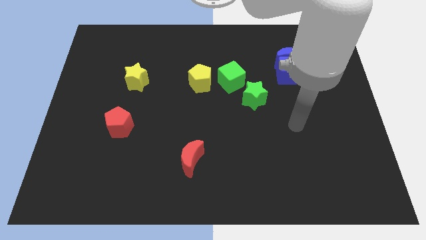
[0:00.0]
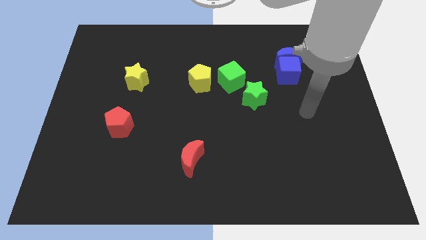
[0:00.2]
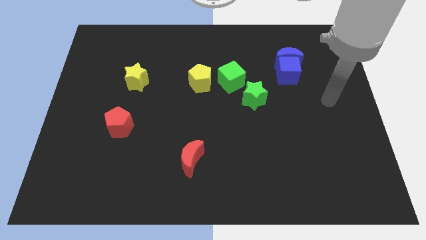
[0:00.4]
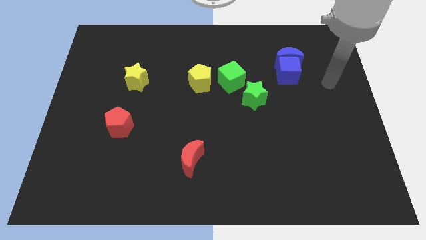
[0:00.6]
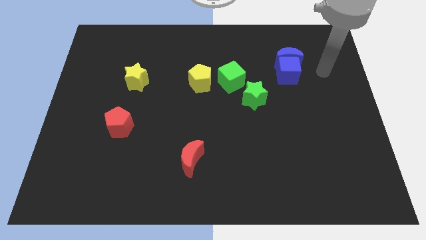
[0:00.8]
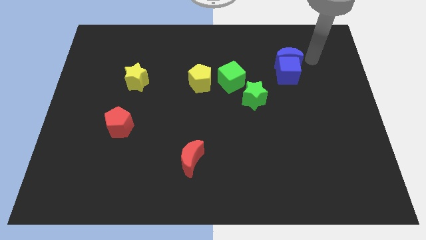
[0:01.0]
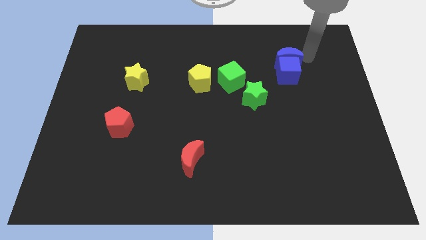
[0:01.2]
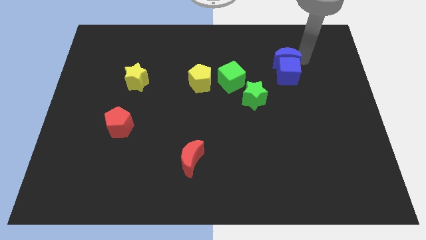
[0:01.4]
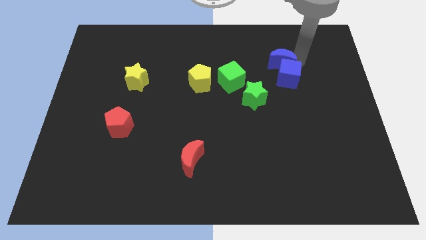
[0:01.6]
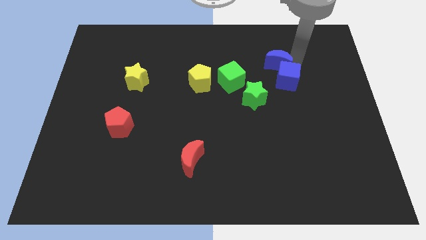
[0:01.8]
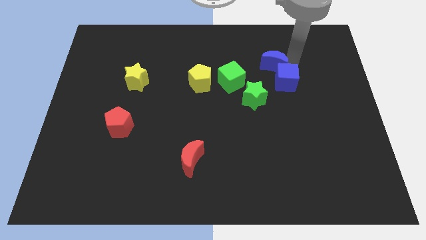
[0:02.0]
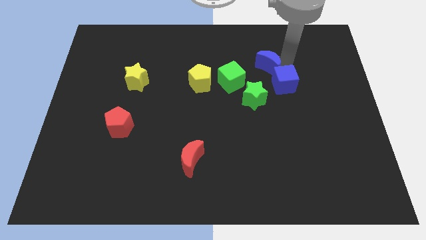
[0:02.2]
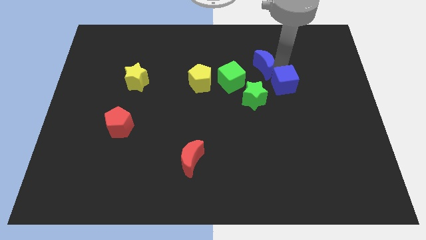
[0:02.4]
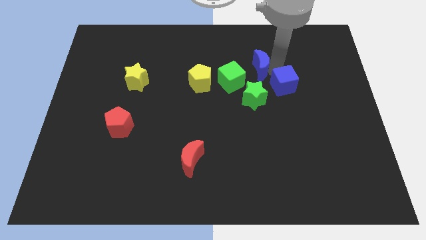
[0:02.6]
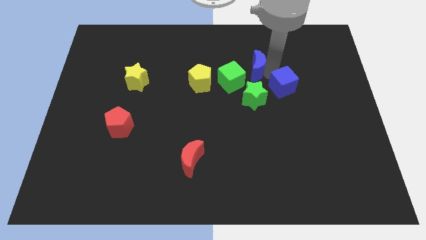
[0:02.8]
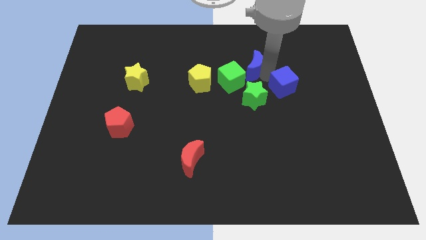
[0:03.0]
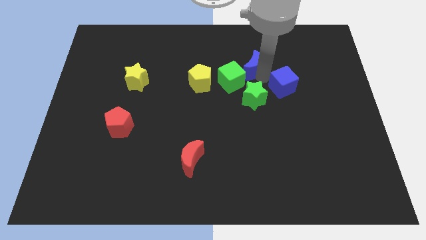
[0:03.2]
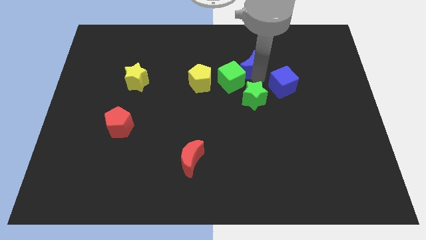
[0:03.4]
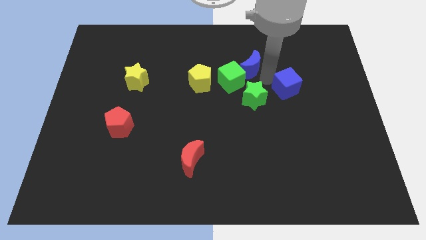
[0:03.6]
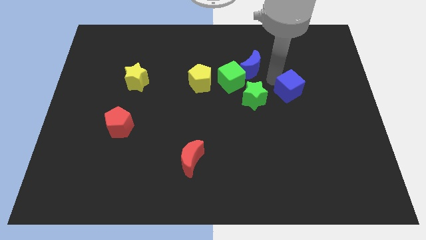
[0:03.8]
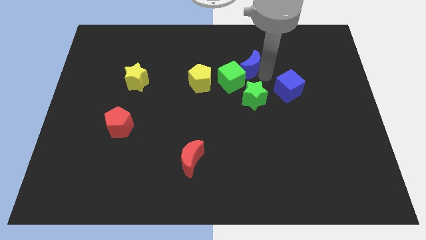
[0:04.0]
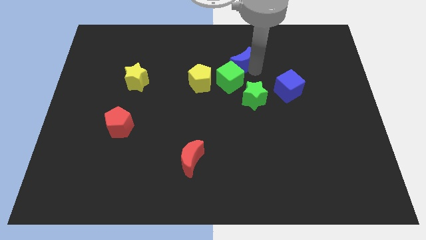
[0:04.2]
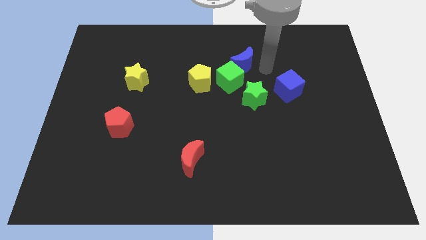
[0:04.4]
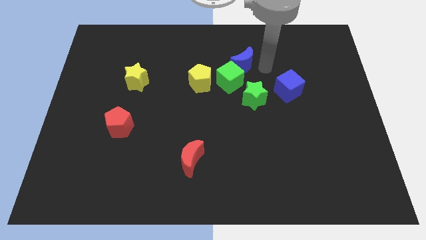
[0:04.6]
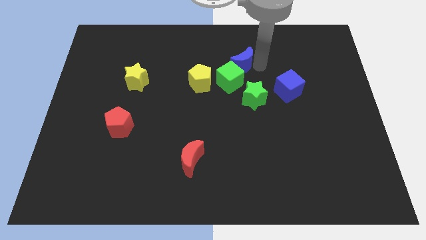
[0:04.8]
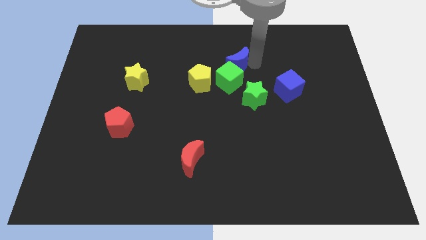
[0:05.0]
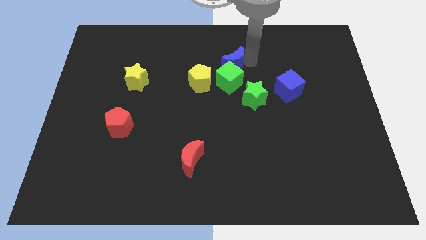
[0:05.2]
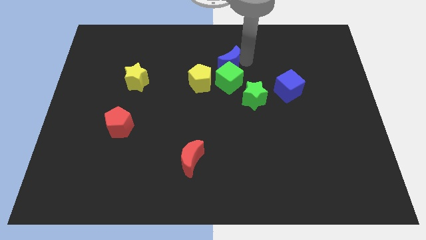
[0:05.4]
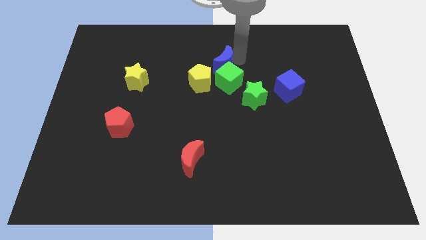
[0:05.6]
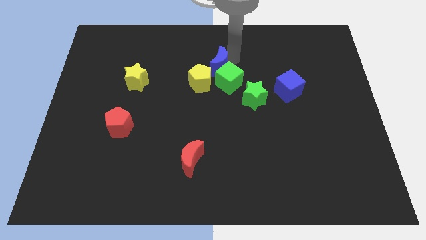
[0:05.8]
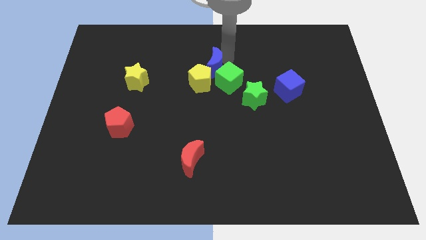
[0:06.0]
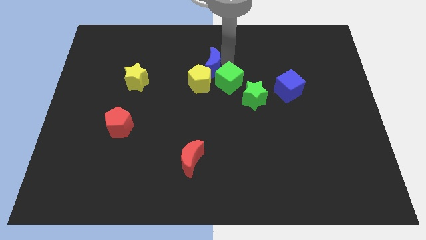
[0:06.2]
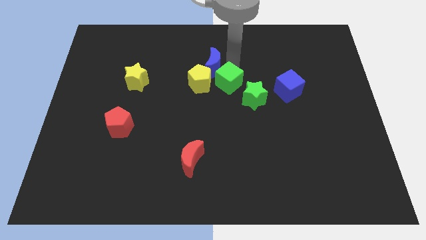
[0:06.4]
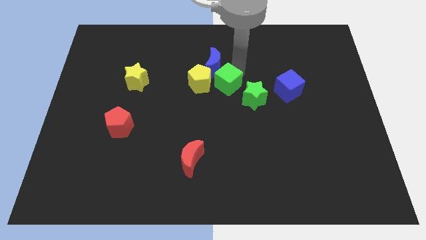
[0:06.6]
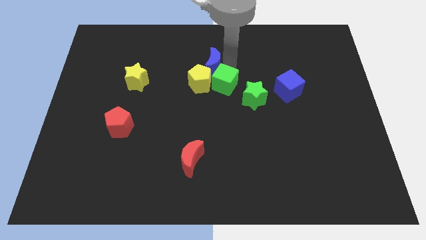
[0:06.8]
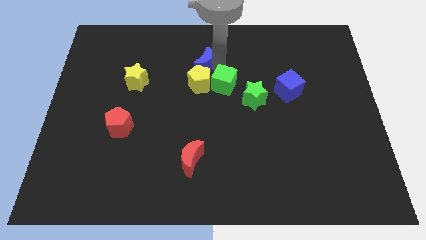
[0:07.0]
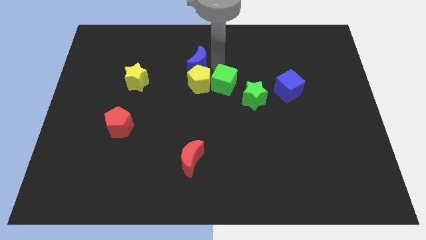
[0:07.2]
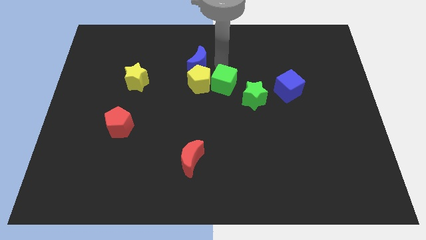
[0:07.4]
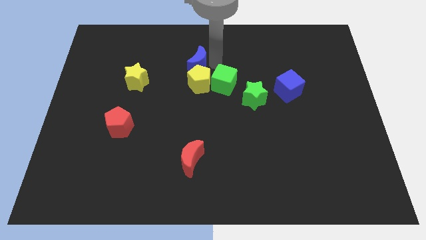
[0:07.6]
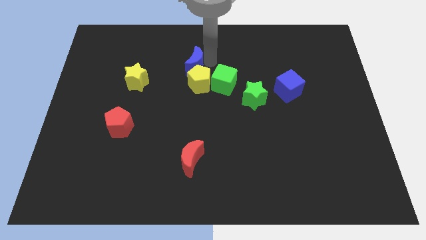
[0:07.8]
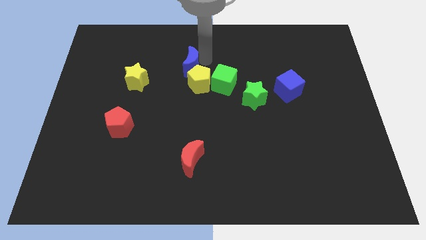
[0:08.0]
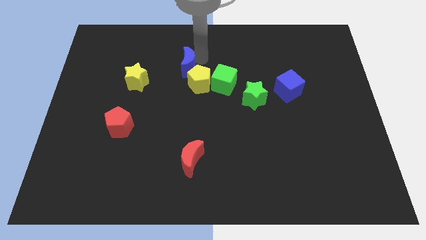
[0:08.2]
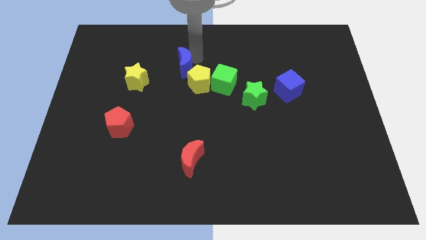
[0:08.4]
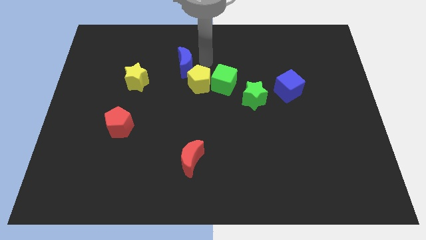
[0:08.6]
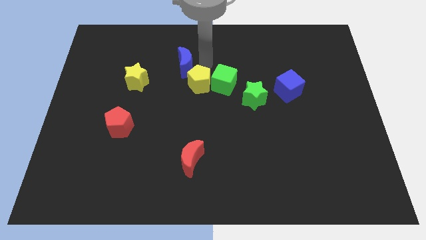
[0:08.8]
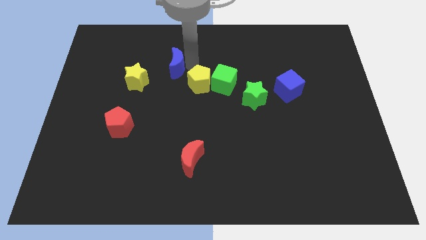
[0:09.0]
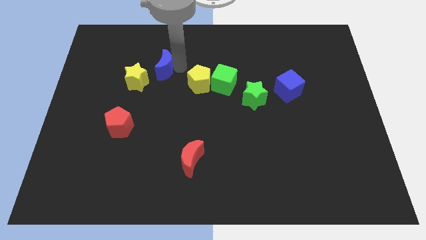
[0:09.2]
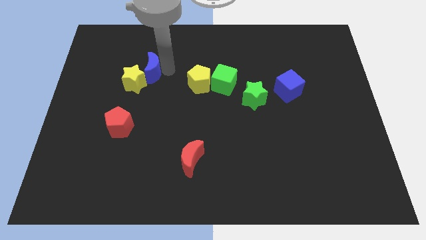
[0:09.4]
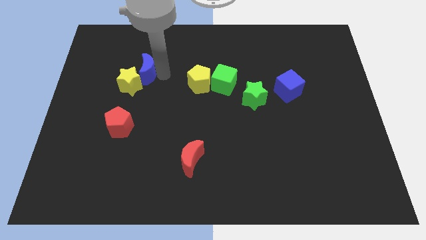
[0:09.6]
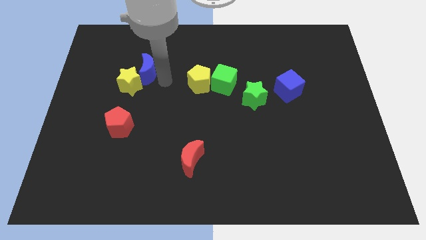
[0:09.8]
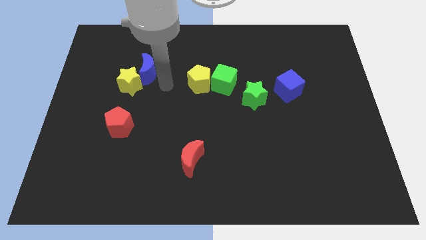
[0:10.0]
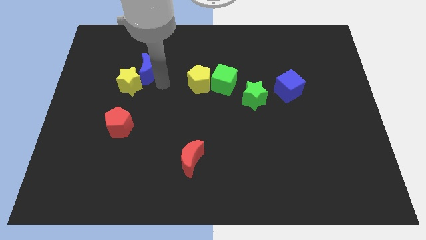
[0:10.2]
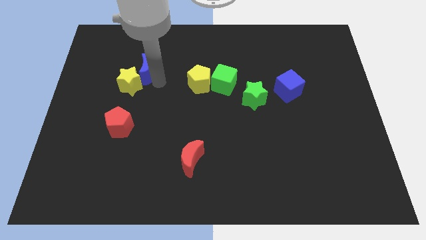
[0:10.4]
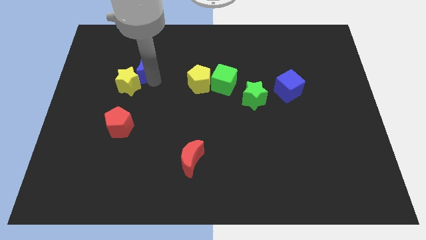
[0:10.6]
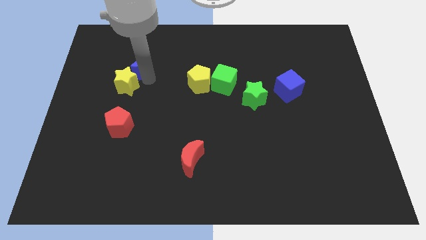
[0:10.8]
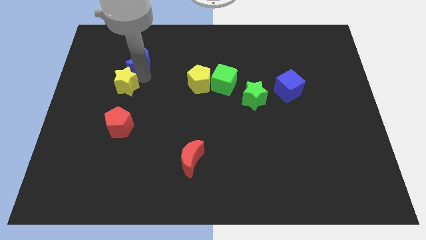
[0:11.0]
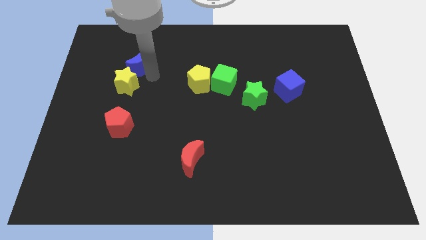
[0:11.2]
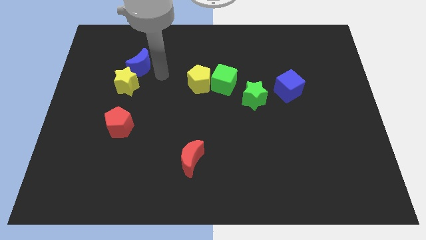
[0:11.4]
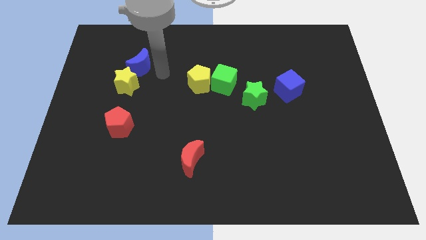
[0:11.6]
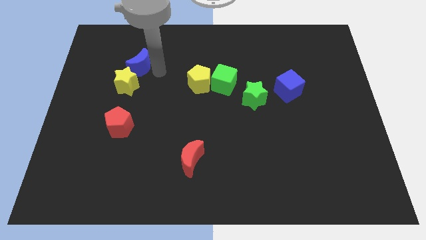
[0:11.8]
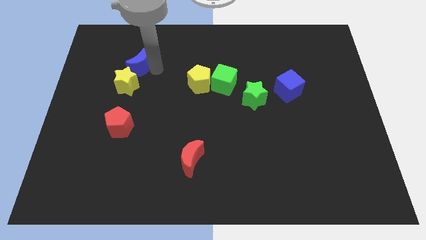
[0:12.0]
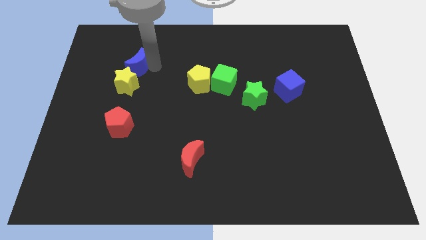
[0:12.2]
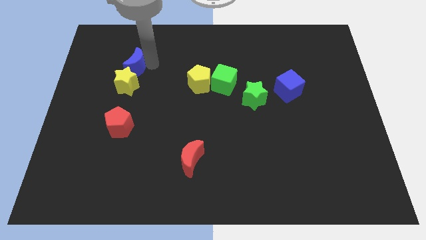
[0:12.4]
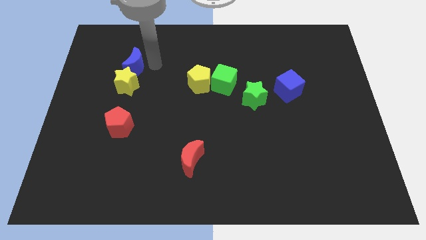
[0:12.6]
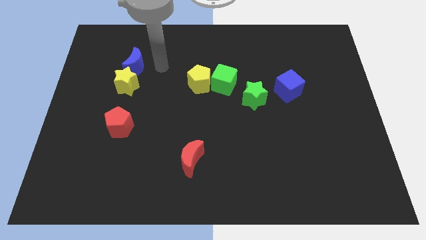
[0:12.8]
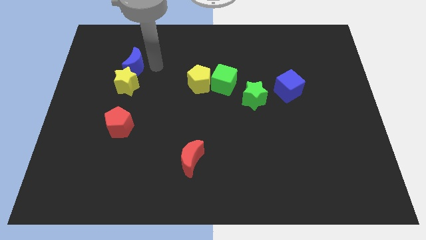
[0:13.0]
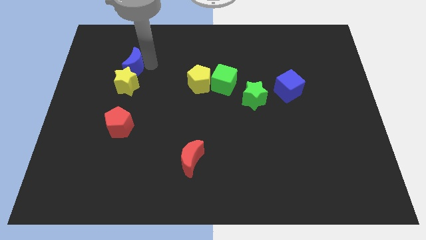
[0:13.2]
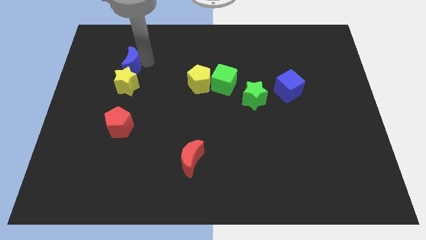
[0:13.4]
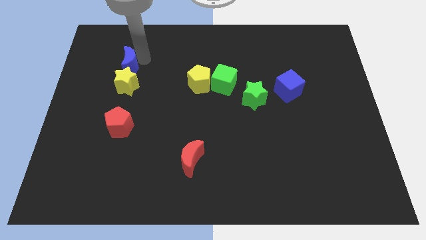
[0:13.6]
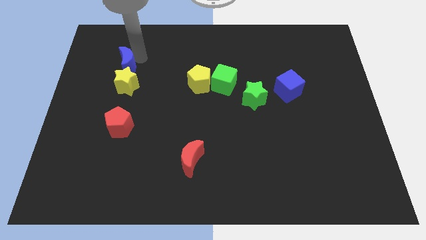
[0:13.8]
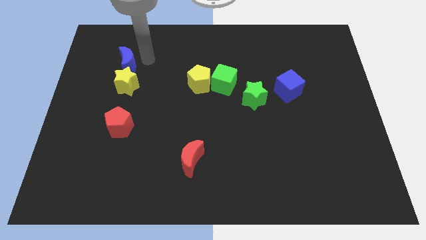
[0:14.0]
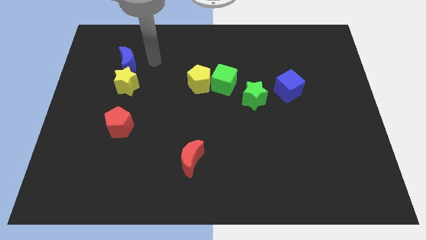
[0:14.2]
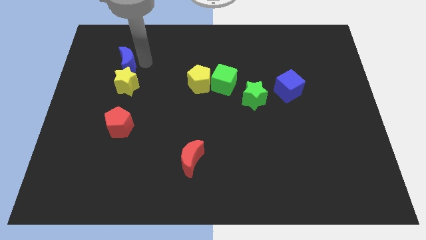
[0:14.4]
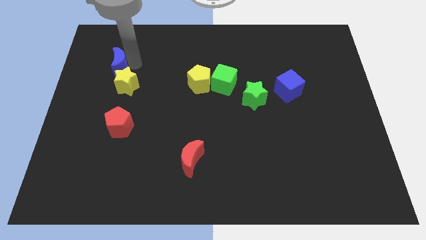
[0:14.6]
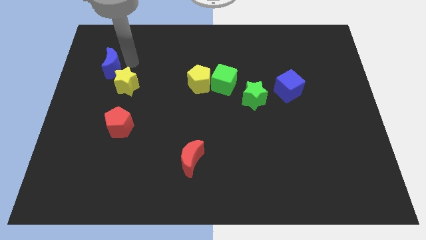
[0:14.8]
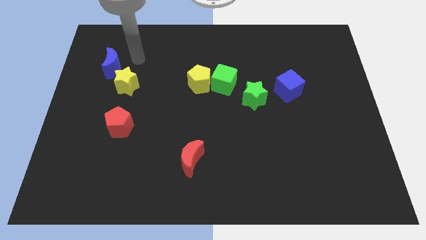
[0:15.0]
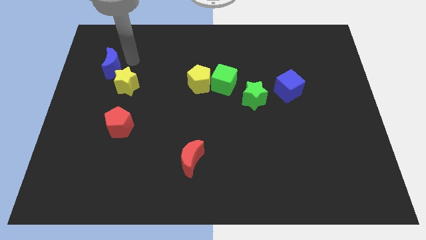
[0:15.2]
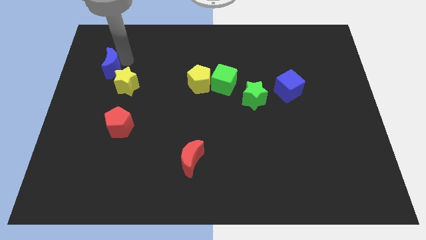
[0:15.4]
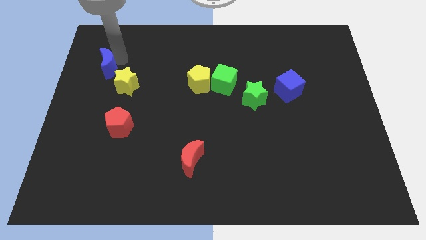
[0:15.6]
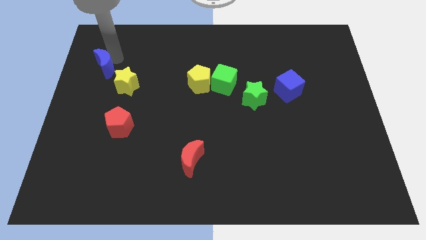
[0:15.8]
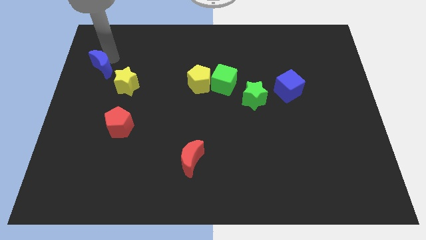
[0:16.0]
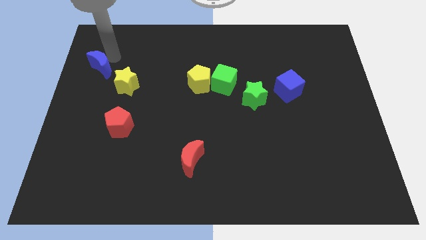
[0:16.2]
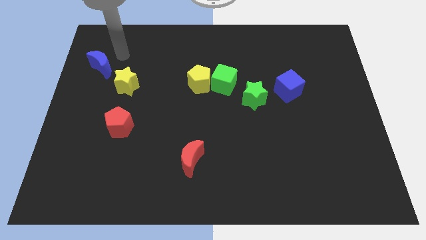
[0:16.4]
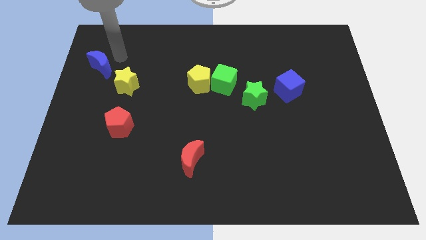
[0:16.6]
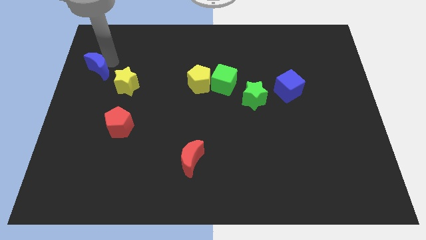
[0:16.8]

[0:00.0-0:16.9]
move the blue moon to the left side
